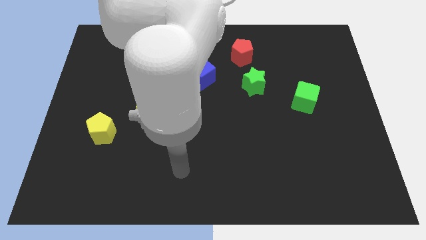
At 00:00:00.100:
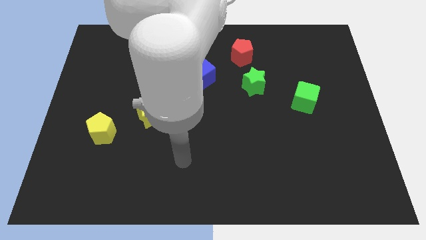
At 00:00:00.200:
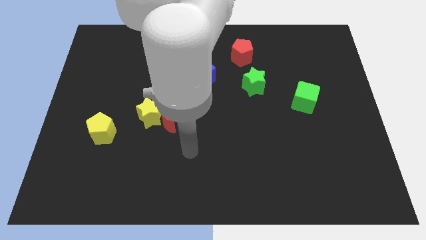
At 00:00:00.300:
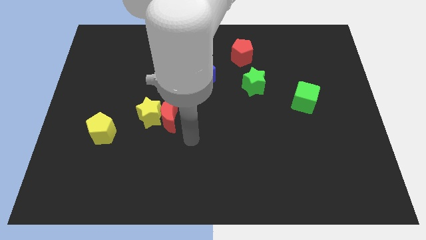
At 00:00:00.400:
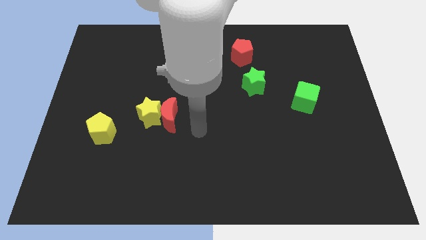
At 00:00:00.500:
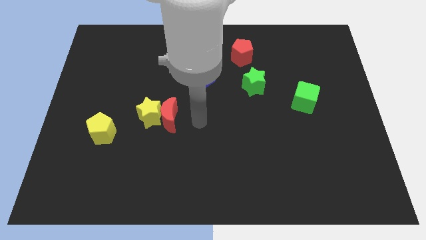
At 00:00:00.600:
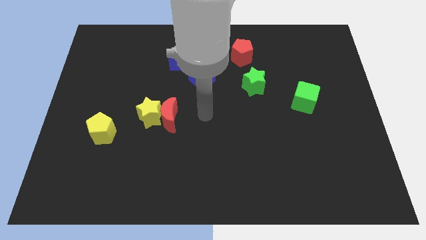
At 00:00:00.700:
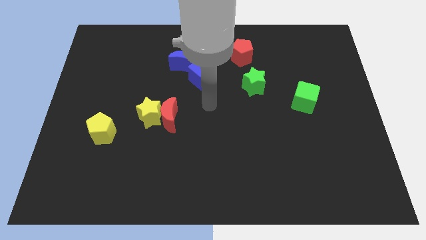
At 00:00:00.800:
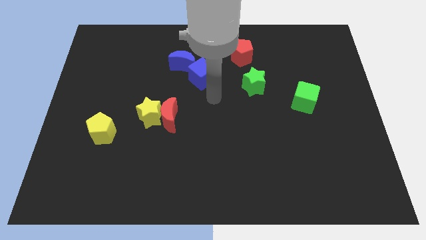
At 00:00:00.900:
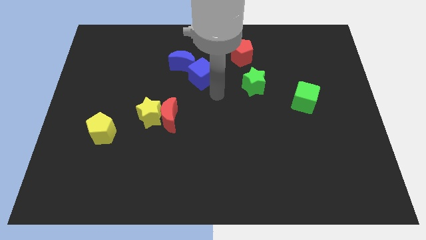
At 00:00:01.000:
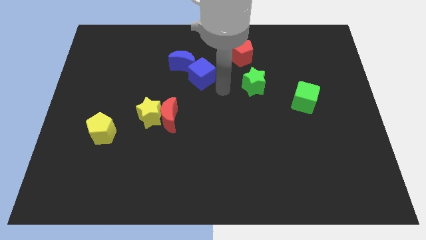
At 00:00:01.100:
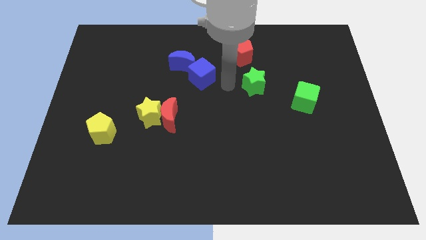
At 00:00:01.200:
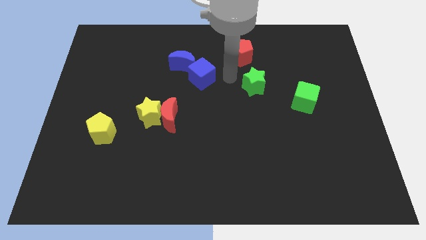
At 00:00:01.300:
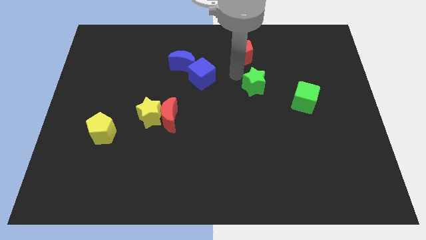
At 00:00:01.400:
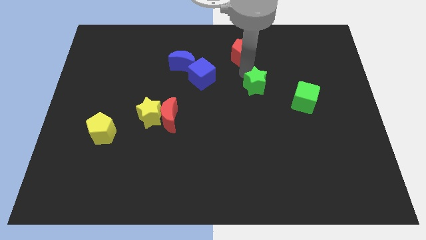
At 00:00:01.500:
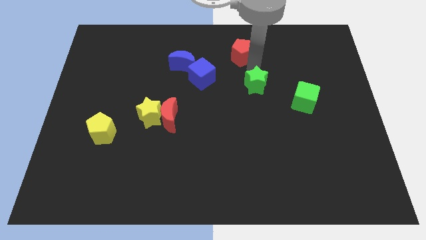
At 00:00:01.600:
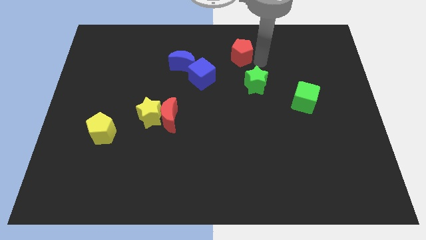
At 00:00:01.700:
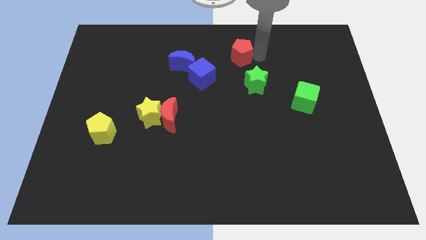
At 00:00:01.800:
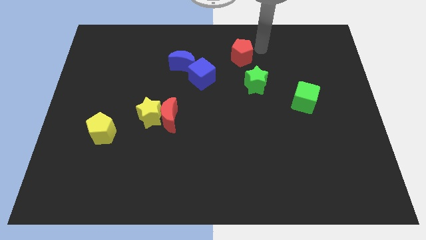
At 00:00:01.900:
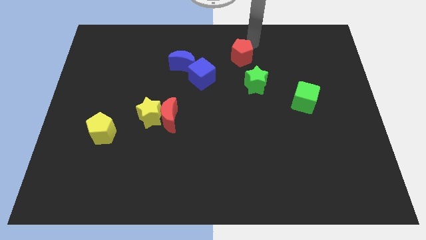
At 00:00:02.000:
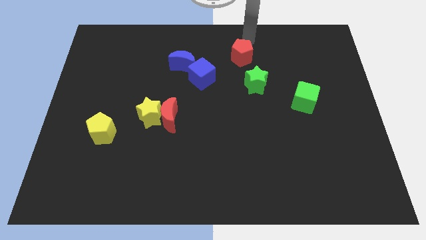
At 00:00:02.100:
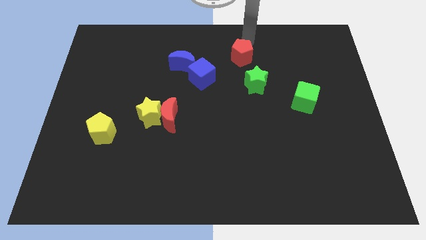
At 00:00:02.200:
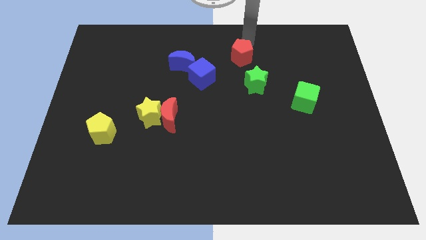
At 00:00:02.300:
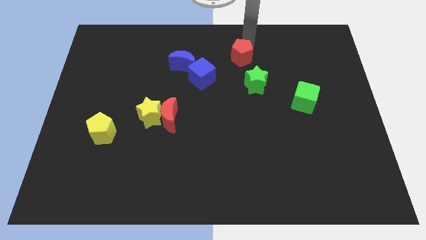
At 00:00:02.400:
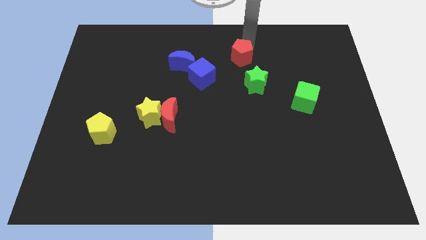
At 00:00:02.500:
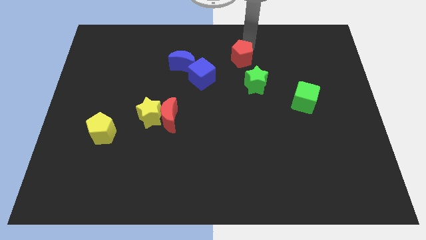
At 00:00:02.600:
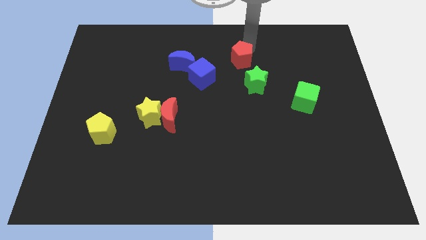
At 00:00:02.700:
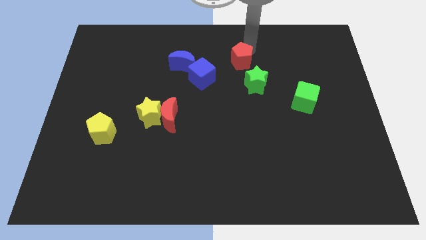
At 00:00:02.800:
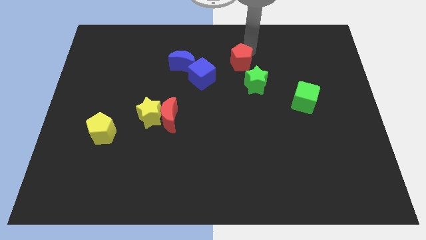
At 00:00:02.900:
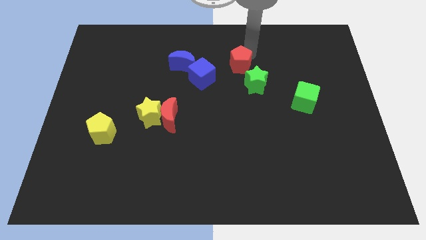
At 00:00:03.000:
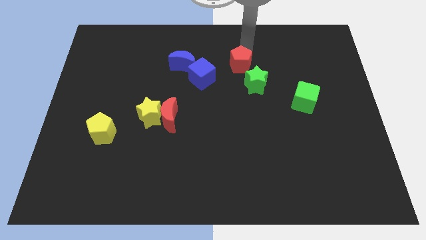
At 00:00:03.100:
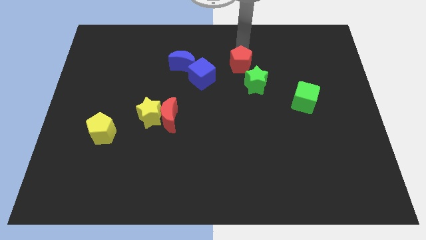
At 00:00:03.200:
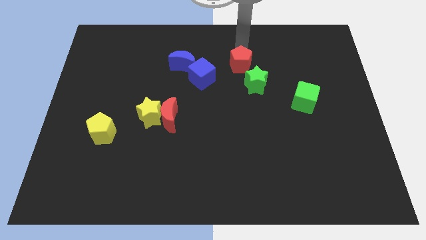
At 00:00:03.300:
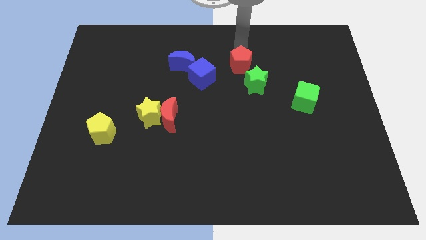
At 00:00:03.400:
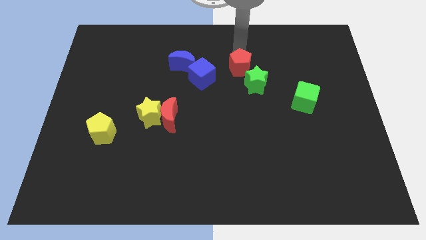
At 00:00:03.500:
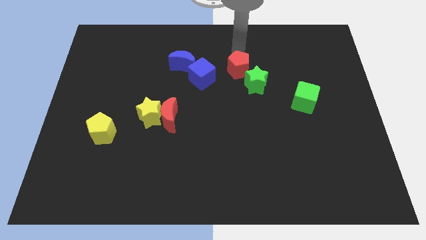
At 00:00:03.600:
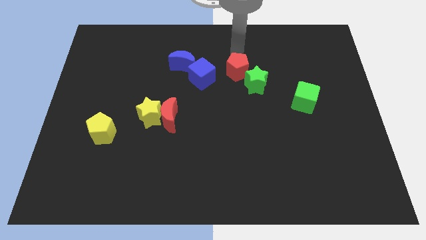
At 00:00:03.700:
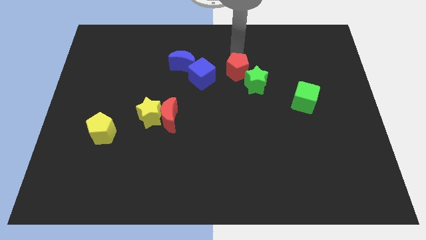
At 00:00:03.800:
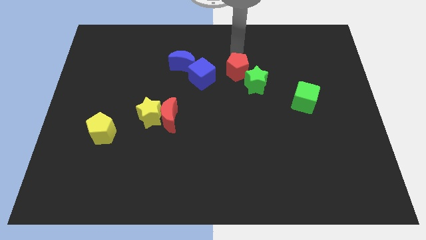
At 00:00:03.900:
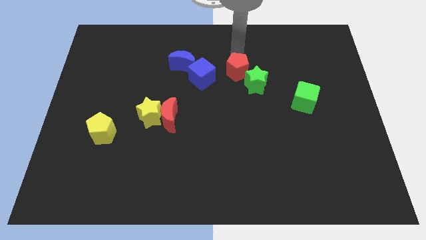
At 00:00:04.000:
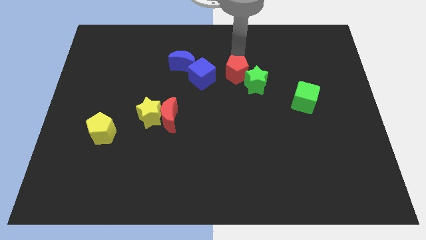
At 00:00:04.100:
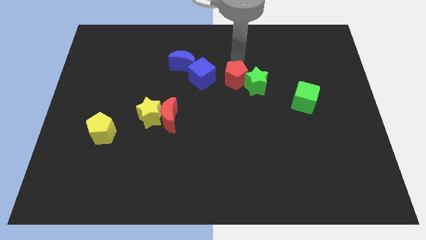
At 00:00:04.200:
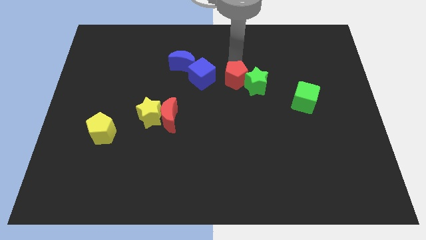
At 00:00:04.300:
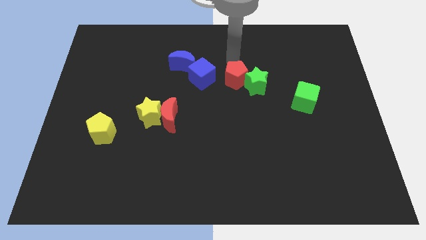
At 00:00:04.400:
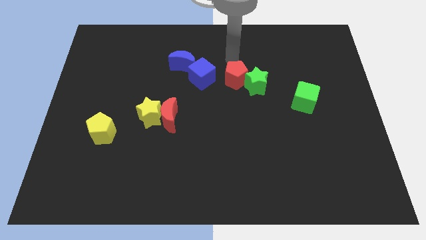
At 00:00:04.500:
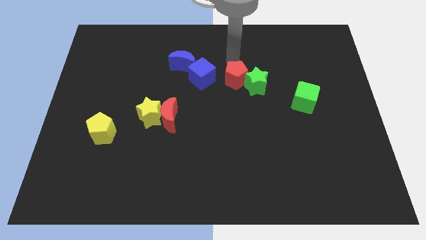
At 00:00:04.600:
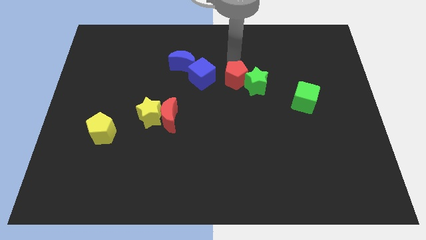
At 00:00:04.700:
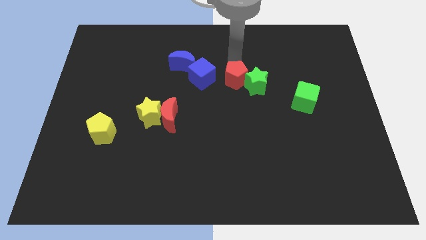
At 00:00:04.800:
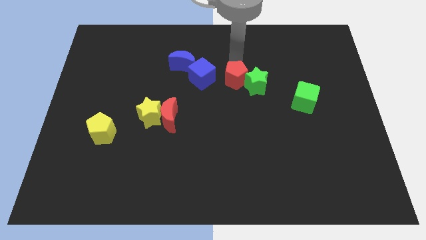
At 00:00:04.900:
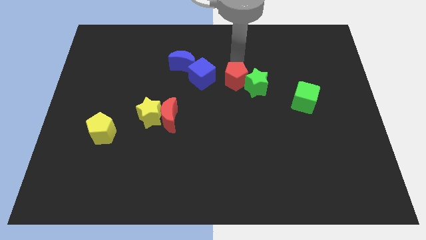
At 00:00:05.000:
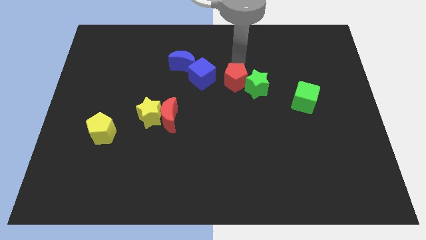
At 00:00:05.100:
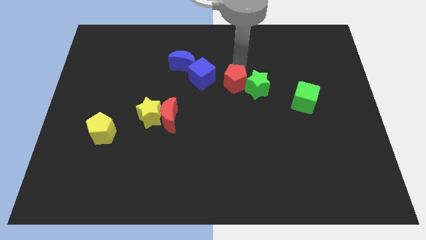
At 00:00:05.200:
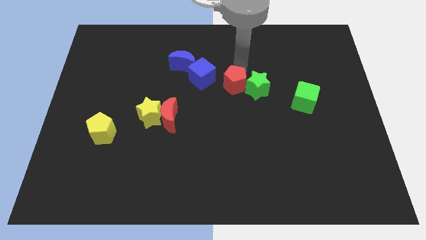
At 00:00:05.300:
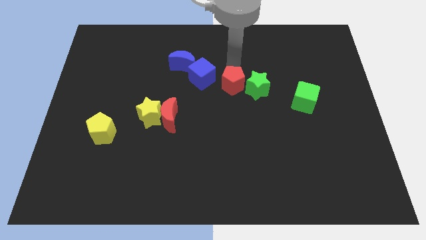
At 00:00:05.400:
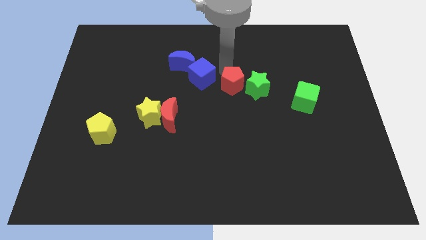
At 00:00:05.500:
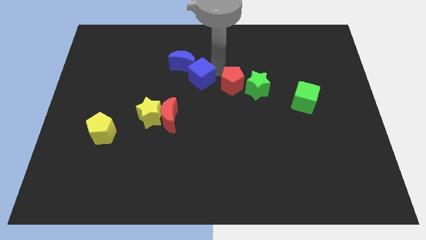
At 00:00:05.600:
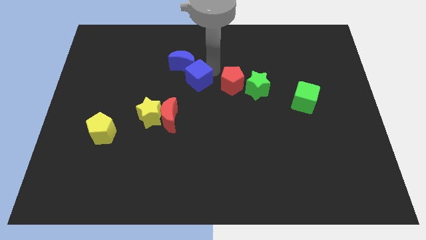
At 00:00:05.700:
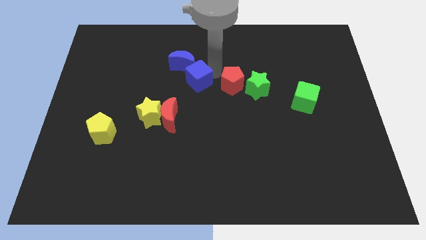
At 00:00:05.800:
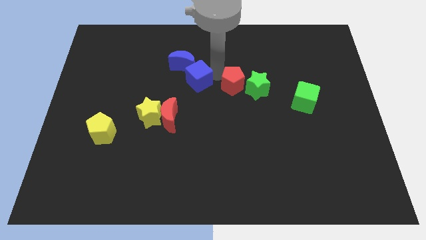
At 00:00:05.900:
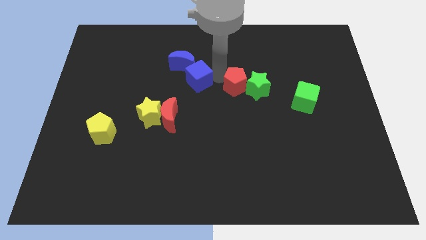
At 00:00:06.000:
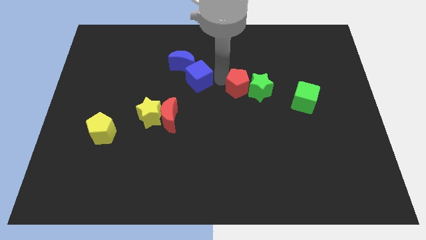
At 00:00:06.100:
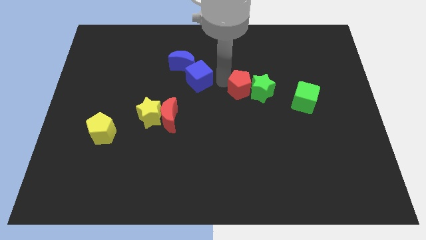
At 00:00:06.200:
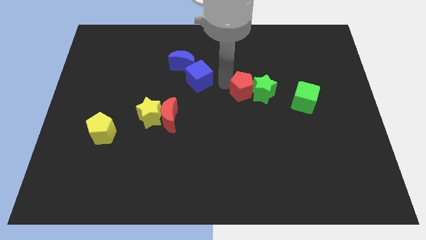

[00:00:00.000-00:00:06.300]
put the red pentagon left of the green cube
